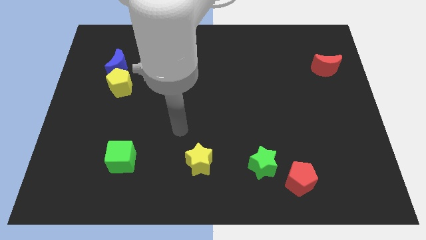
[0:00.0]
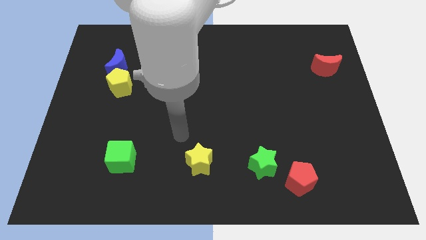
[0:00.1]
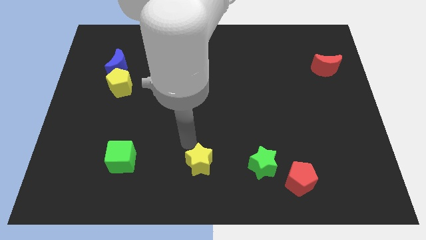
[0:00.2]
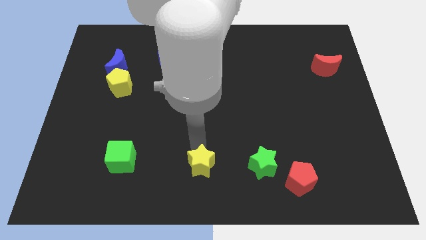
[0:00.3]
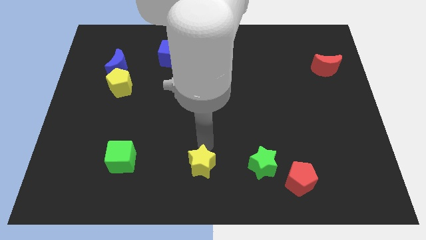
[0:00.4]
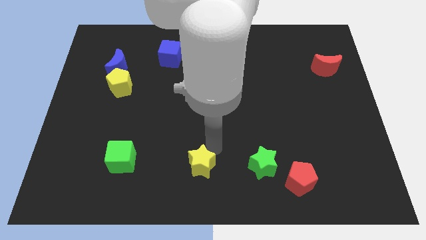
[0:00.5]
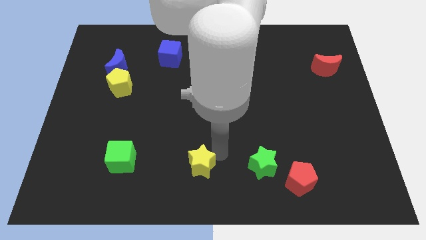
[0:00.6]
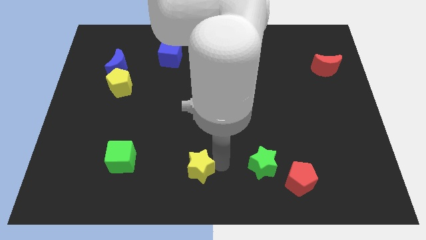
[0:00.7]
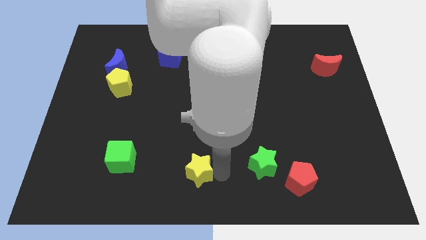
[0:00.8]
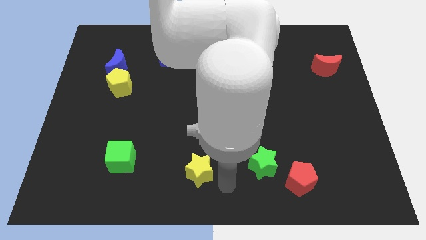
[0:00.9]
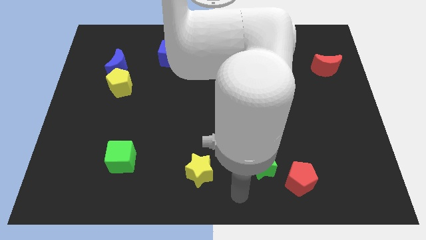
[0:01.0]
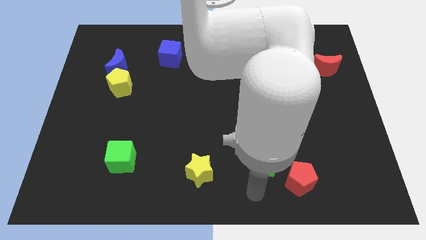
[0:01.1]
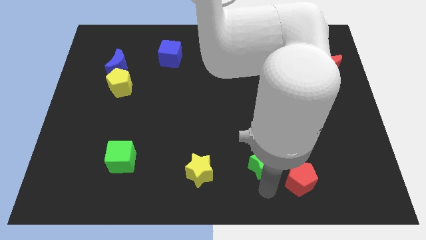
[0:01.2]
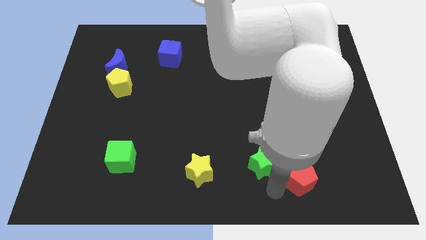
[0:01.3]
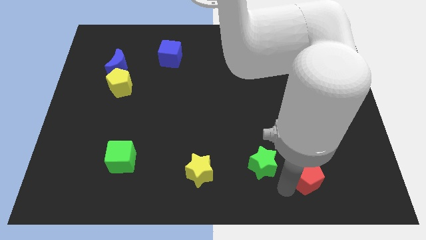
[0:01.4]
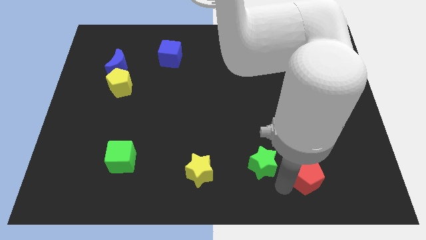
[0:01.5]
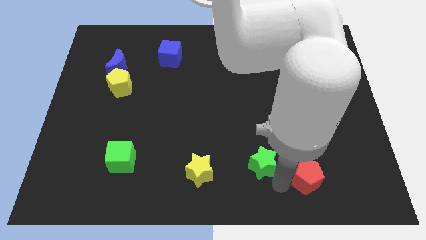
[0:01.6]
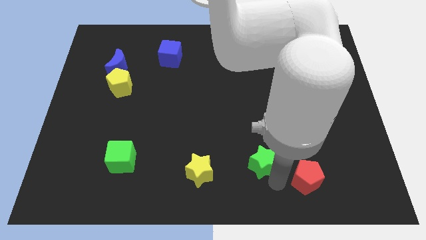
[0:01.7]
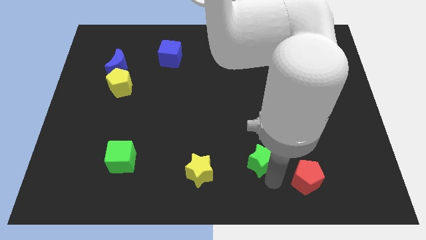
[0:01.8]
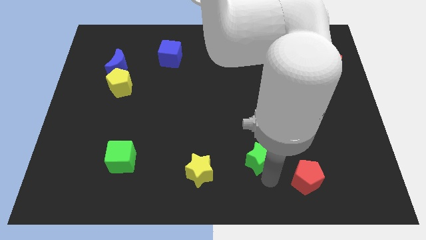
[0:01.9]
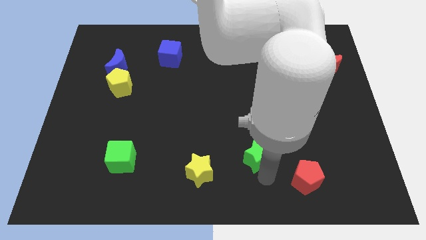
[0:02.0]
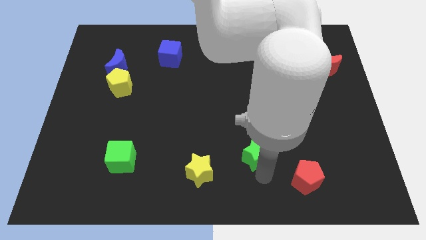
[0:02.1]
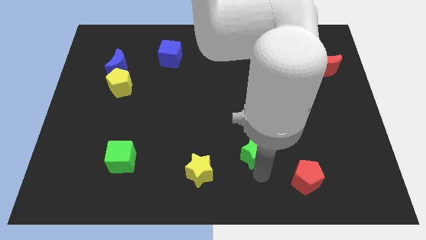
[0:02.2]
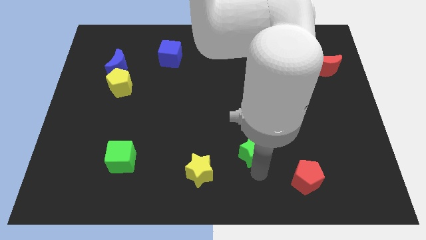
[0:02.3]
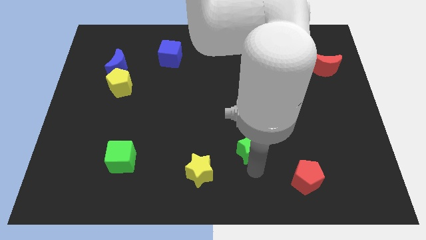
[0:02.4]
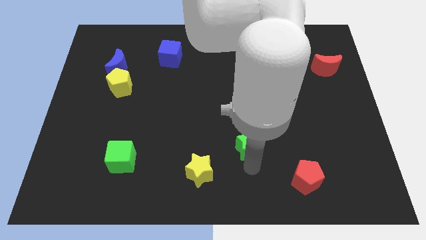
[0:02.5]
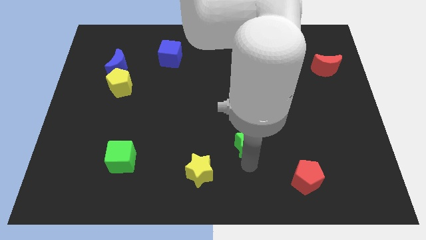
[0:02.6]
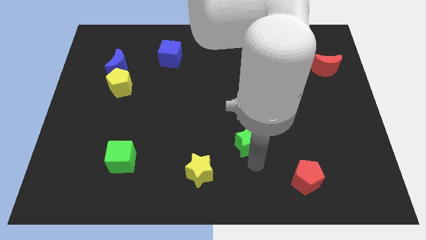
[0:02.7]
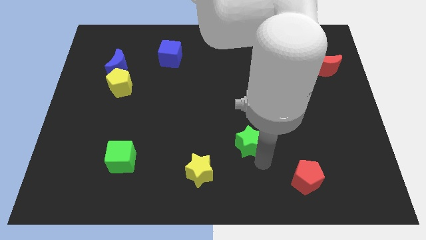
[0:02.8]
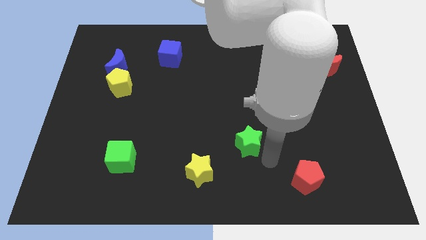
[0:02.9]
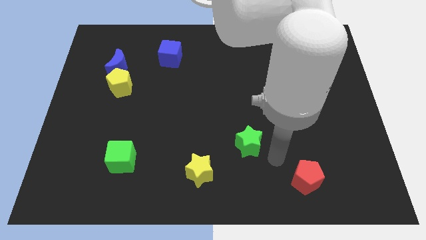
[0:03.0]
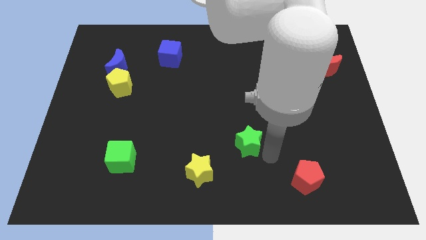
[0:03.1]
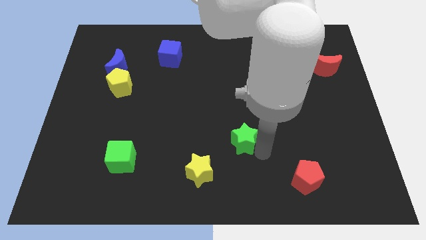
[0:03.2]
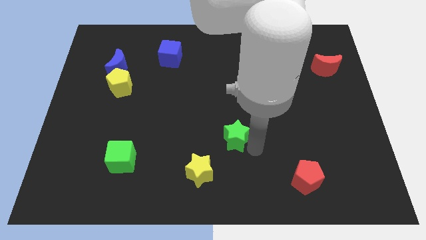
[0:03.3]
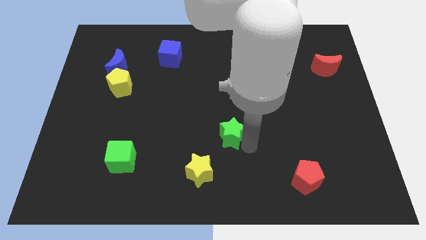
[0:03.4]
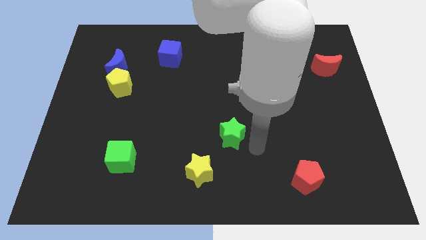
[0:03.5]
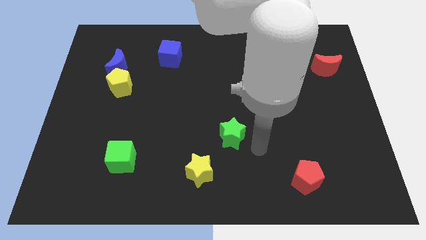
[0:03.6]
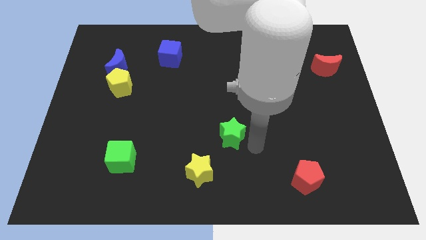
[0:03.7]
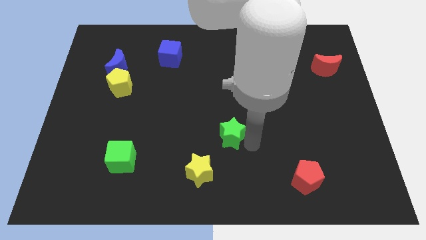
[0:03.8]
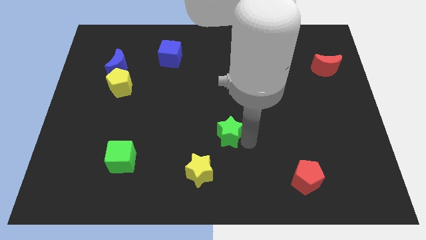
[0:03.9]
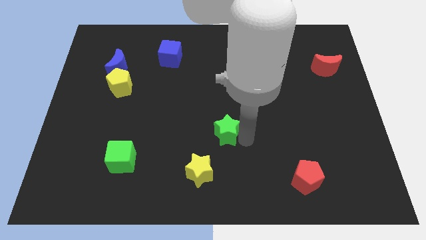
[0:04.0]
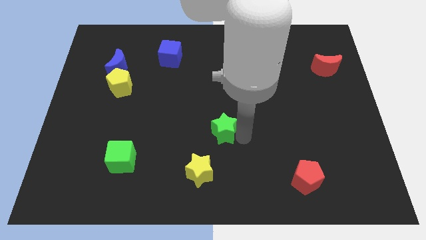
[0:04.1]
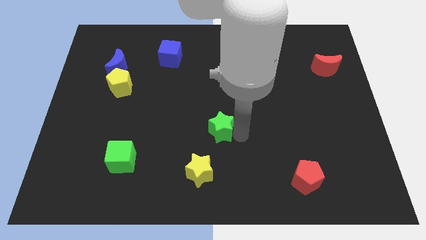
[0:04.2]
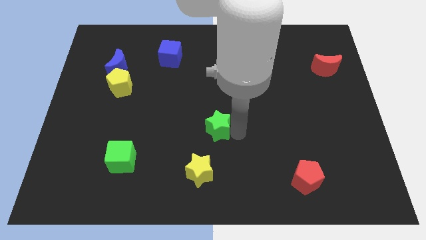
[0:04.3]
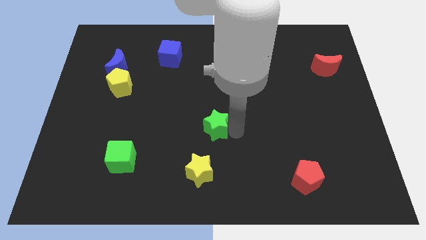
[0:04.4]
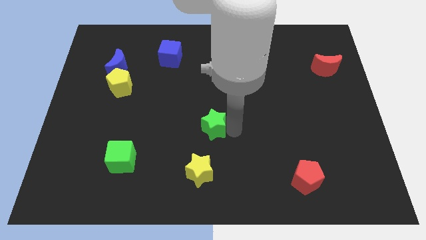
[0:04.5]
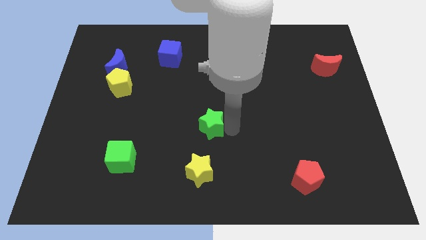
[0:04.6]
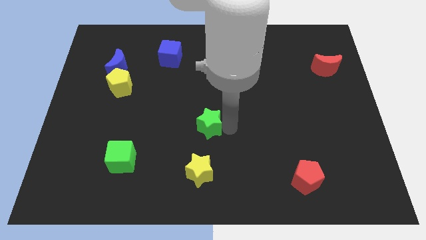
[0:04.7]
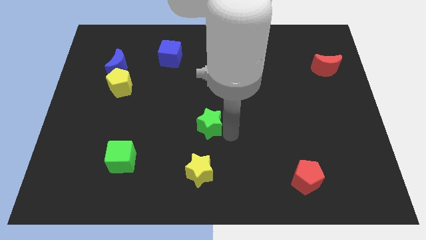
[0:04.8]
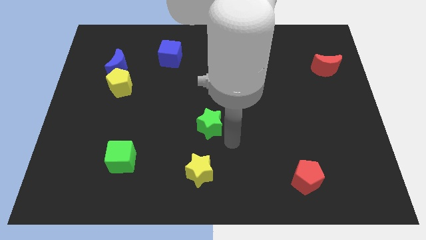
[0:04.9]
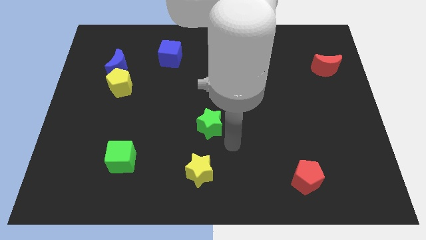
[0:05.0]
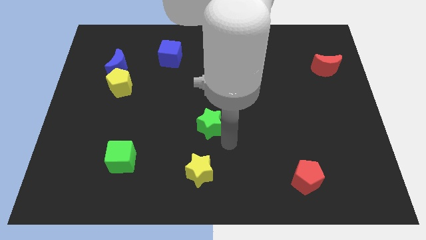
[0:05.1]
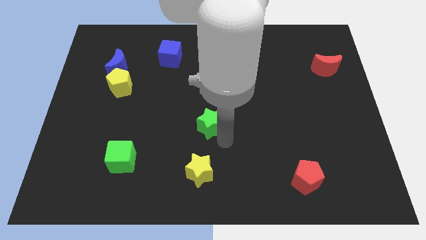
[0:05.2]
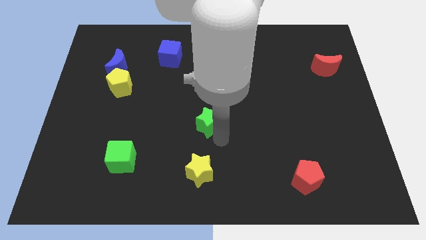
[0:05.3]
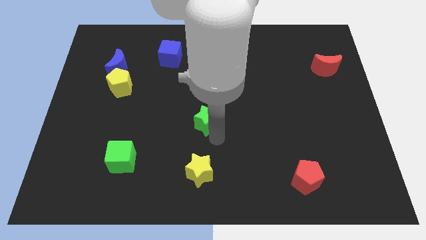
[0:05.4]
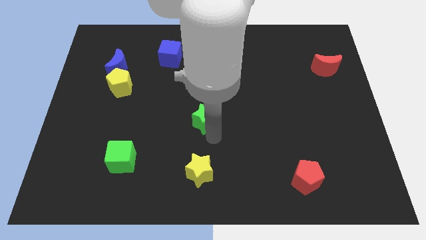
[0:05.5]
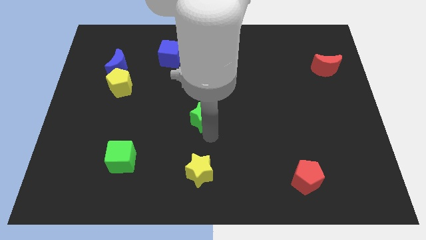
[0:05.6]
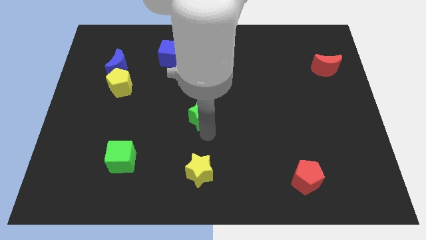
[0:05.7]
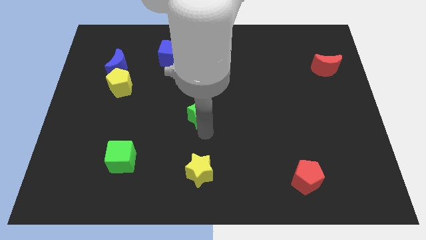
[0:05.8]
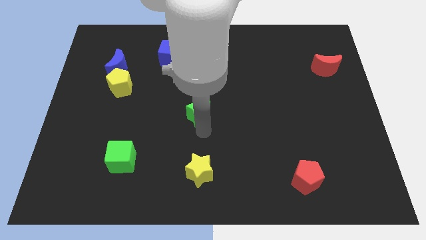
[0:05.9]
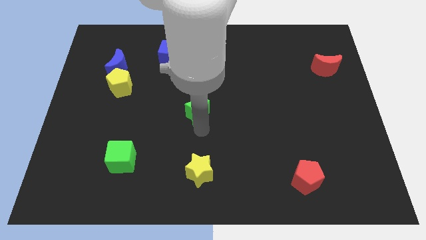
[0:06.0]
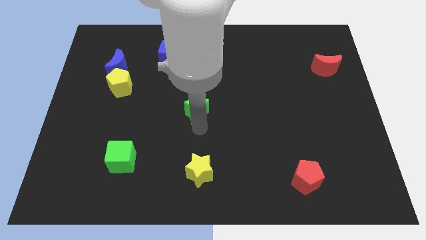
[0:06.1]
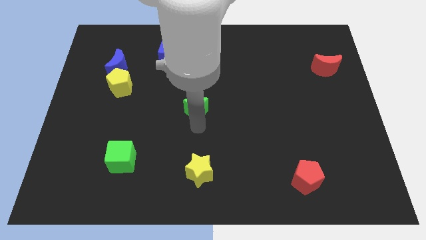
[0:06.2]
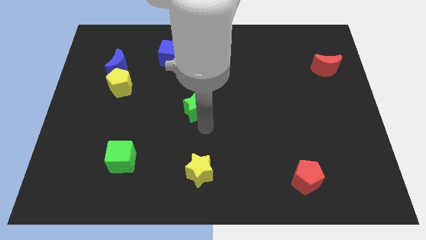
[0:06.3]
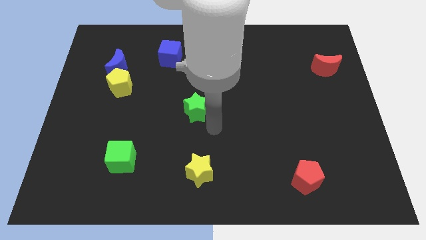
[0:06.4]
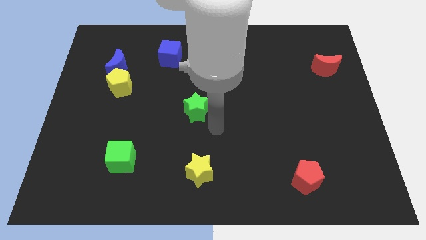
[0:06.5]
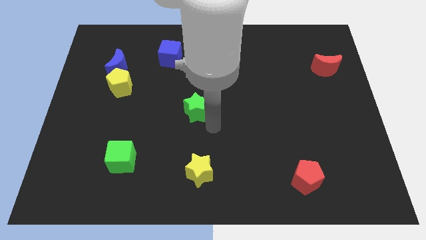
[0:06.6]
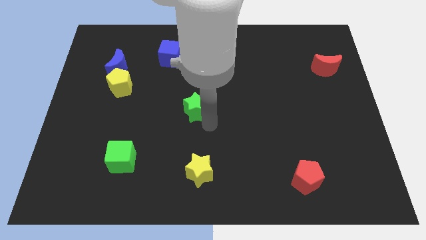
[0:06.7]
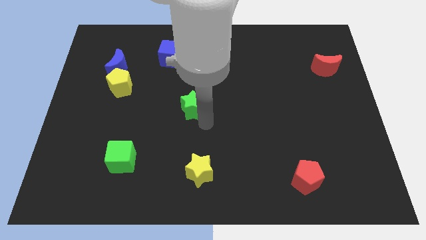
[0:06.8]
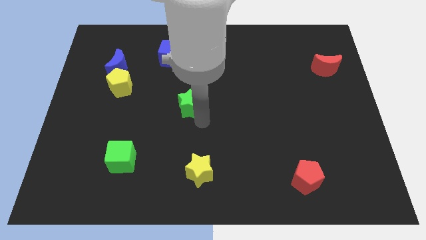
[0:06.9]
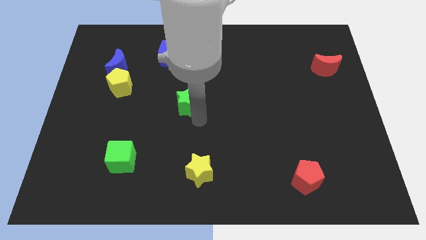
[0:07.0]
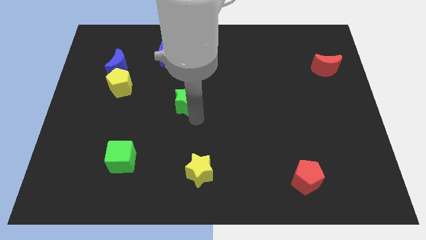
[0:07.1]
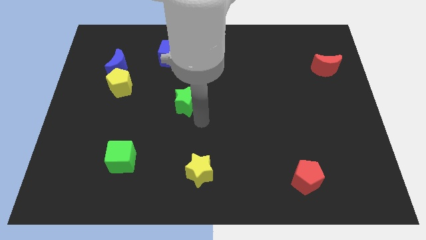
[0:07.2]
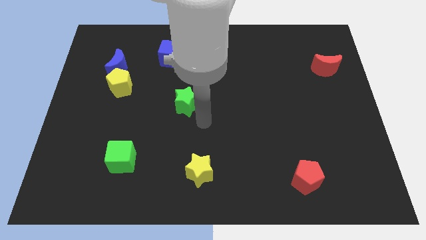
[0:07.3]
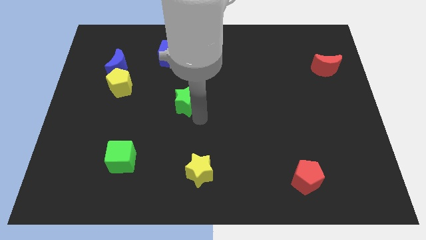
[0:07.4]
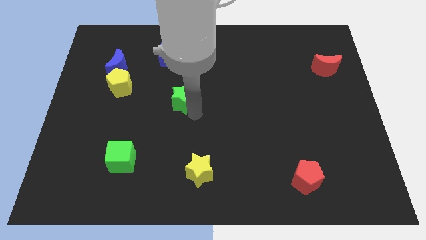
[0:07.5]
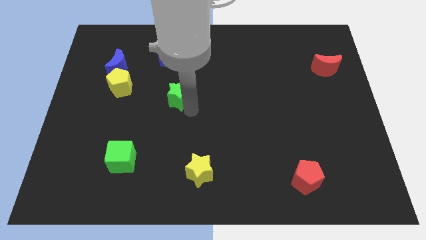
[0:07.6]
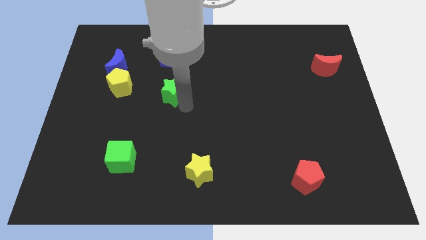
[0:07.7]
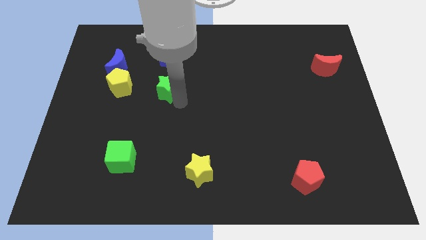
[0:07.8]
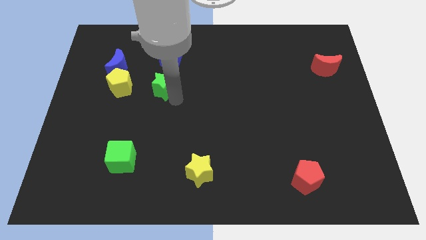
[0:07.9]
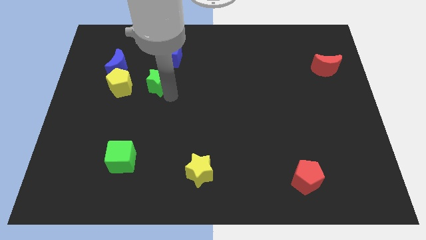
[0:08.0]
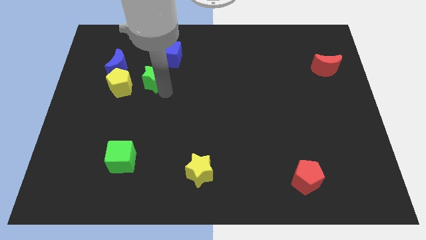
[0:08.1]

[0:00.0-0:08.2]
move the green star to the bottom left side of the blue cube
